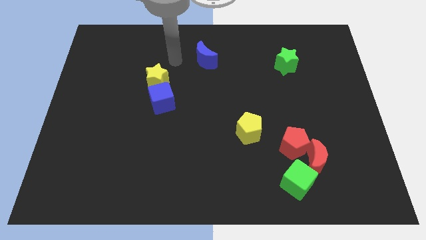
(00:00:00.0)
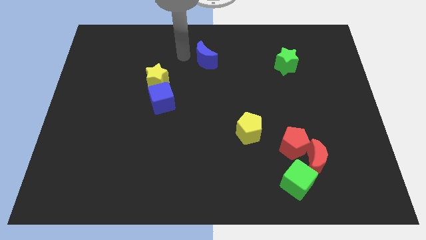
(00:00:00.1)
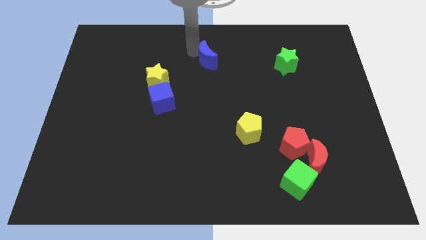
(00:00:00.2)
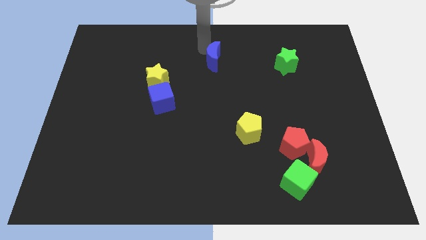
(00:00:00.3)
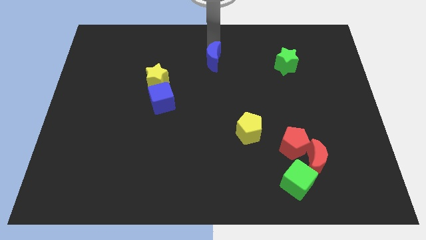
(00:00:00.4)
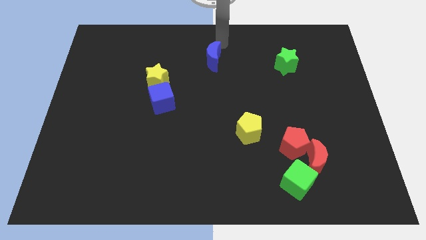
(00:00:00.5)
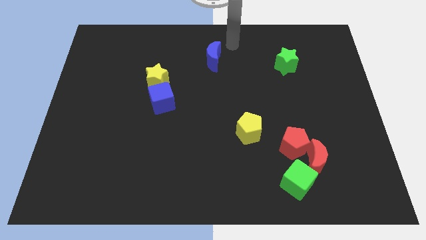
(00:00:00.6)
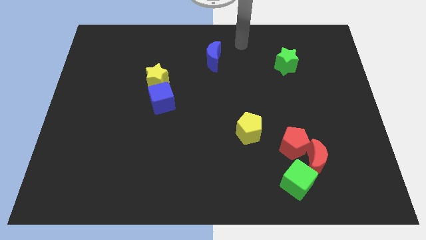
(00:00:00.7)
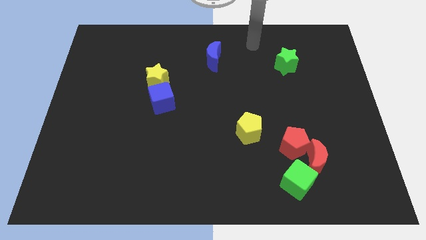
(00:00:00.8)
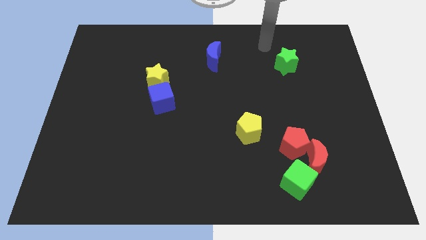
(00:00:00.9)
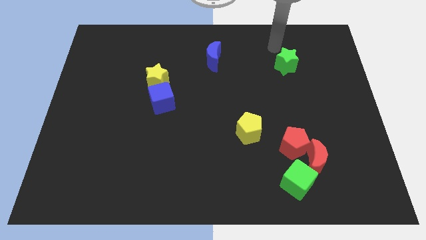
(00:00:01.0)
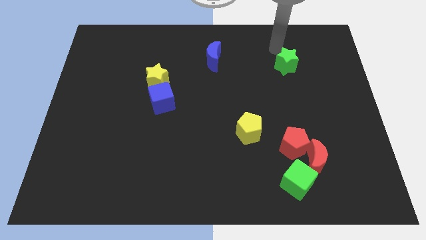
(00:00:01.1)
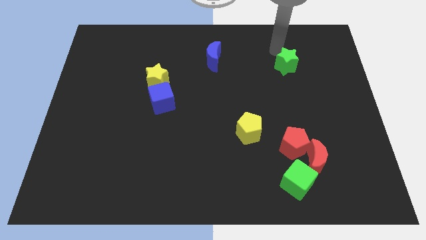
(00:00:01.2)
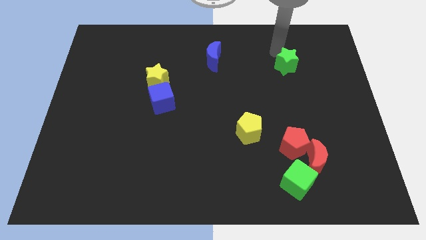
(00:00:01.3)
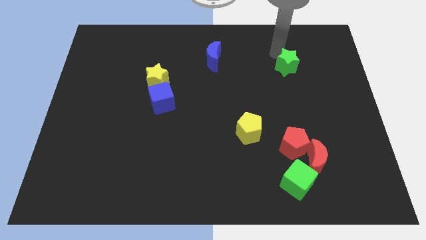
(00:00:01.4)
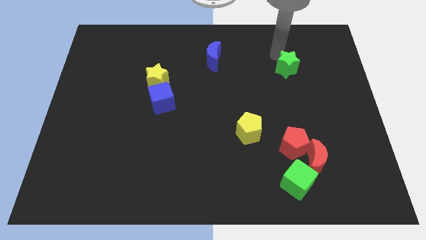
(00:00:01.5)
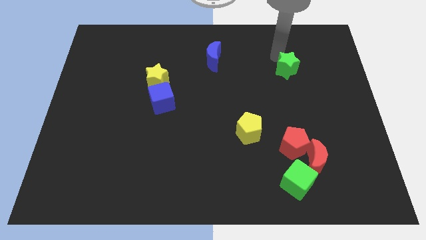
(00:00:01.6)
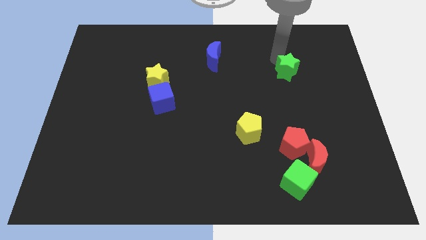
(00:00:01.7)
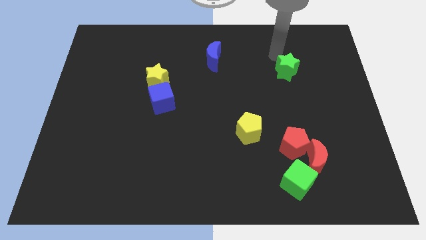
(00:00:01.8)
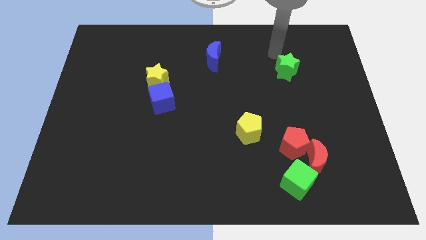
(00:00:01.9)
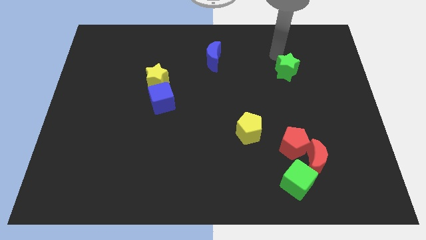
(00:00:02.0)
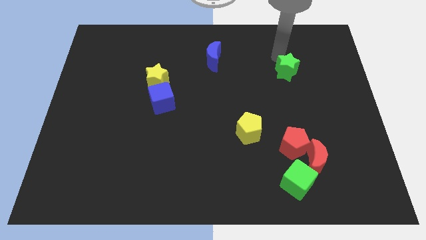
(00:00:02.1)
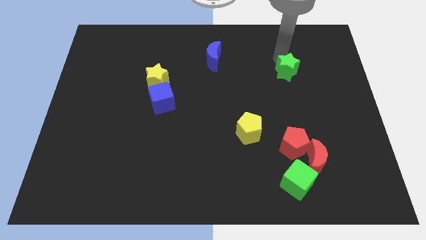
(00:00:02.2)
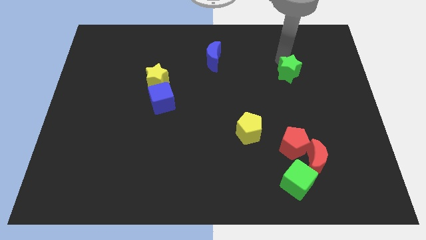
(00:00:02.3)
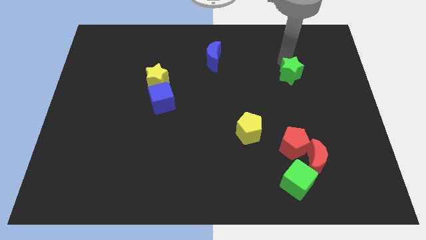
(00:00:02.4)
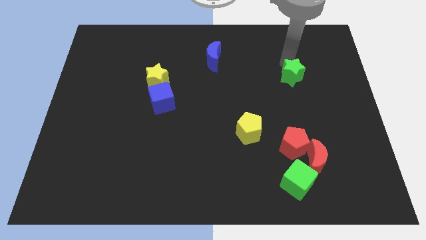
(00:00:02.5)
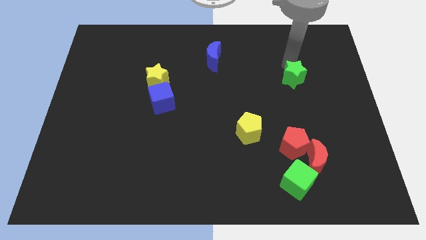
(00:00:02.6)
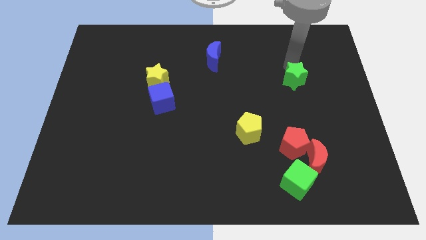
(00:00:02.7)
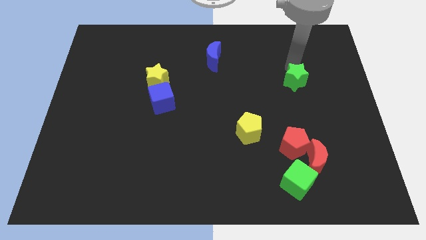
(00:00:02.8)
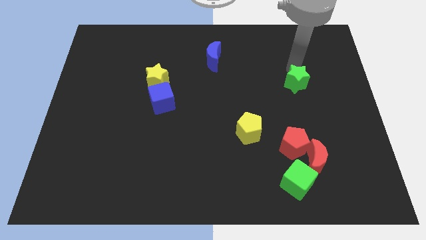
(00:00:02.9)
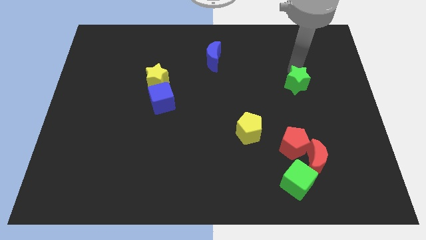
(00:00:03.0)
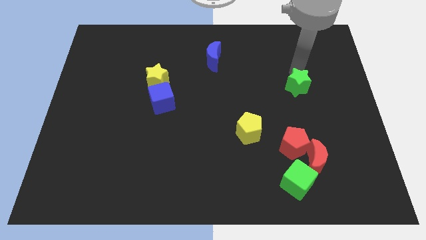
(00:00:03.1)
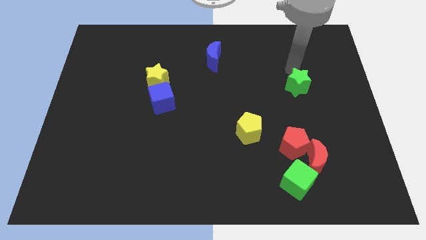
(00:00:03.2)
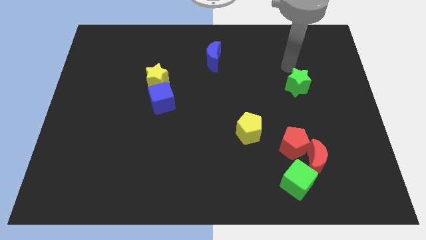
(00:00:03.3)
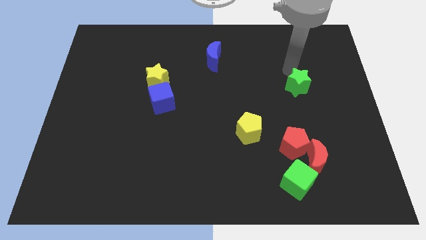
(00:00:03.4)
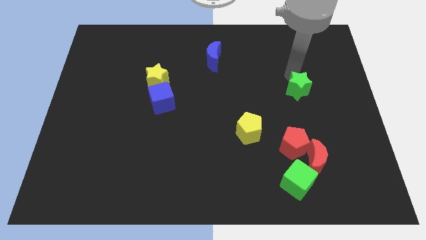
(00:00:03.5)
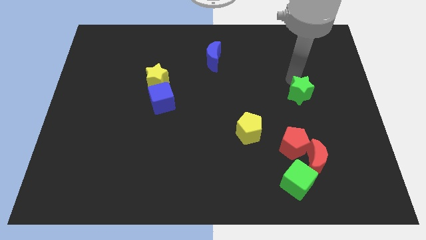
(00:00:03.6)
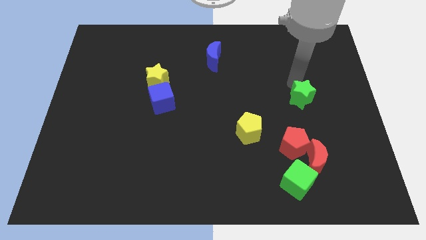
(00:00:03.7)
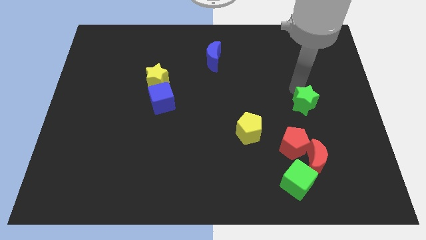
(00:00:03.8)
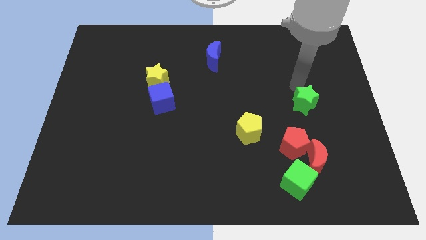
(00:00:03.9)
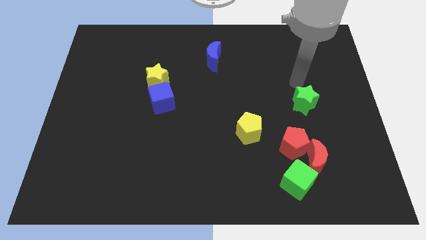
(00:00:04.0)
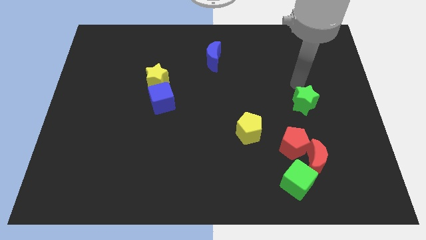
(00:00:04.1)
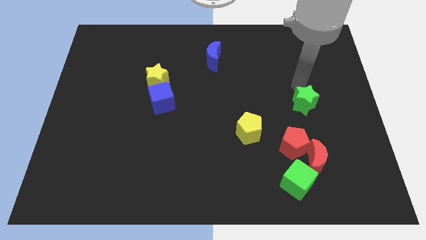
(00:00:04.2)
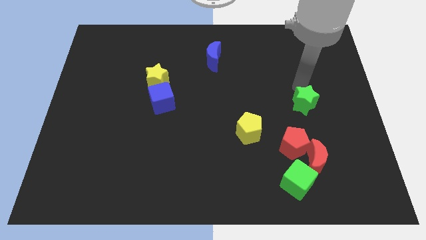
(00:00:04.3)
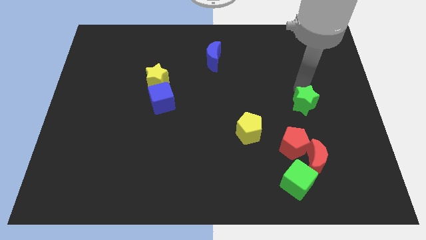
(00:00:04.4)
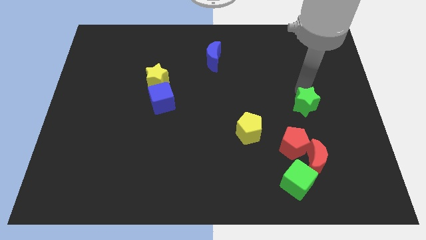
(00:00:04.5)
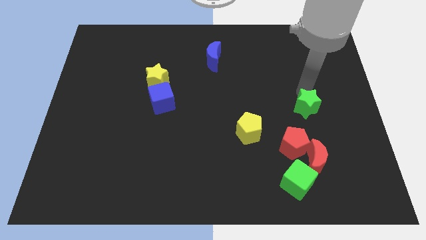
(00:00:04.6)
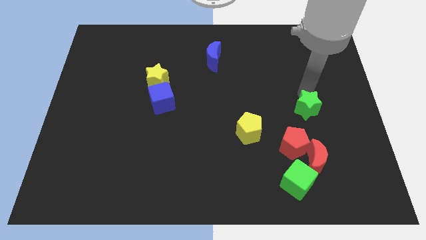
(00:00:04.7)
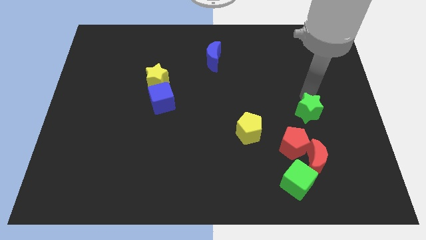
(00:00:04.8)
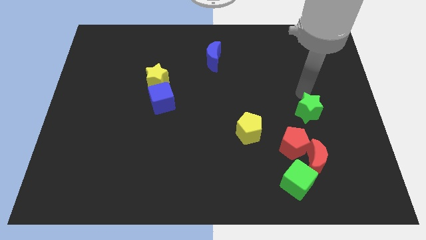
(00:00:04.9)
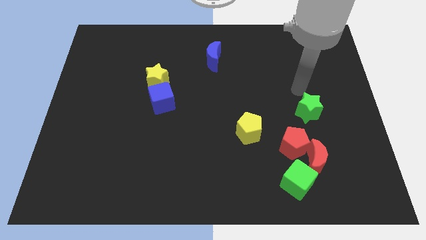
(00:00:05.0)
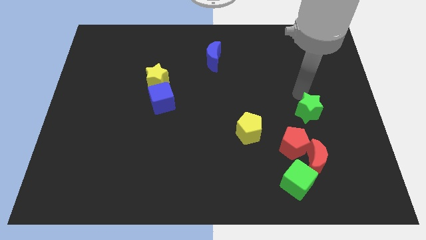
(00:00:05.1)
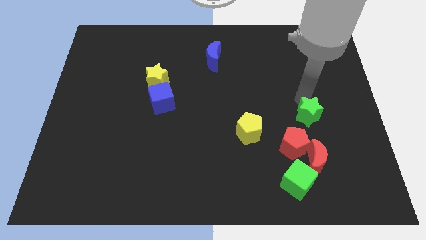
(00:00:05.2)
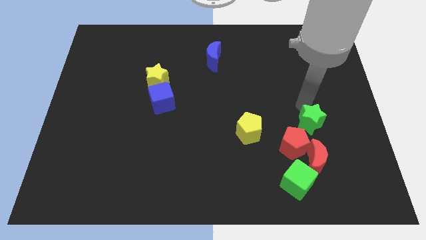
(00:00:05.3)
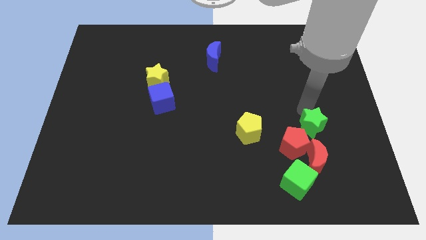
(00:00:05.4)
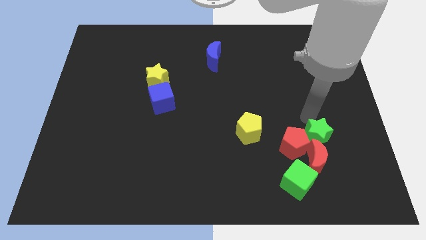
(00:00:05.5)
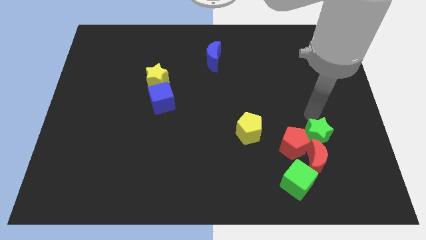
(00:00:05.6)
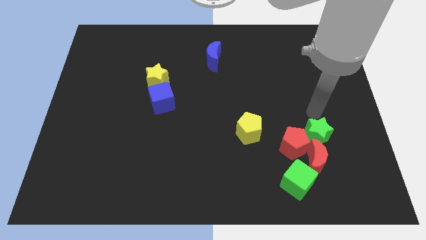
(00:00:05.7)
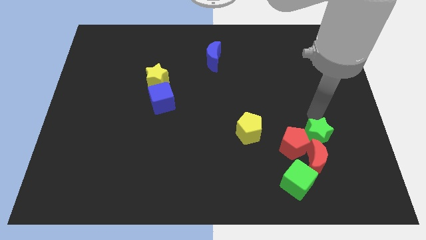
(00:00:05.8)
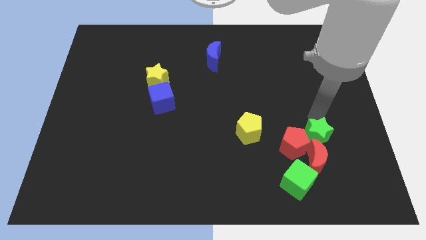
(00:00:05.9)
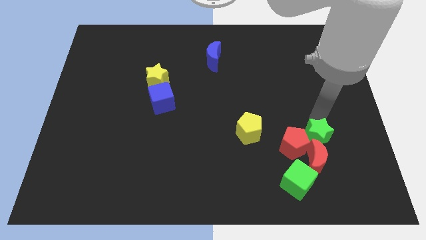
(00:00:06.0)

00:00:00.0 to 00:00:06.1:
push the green star towards the red moon

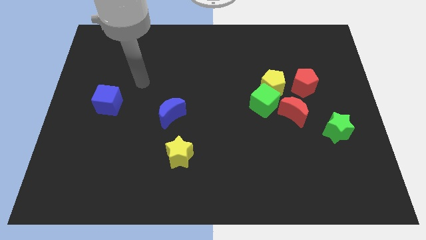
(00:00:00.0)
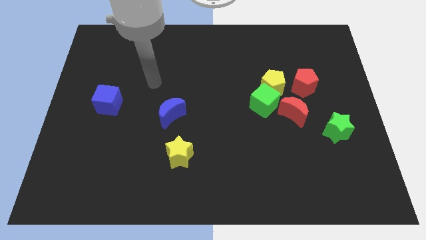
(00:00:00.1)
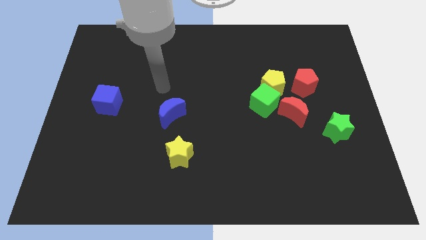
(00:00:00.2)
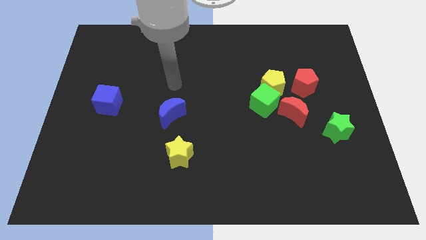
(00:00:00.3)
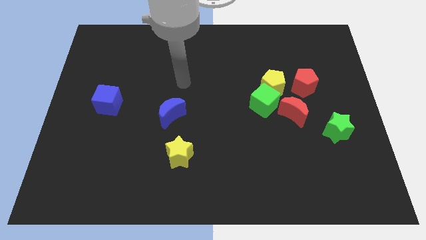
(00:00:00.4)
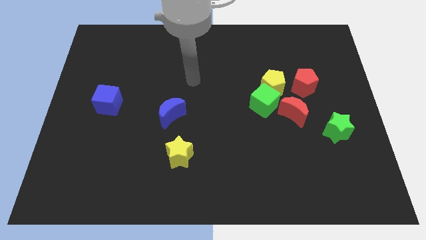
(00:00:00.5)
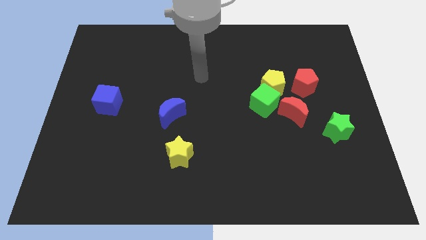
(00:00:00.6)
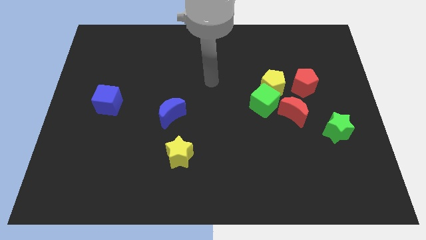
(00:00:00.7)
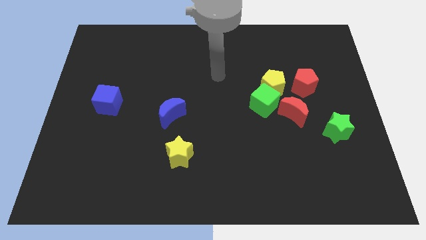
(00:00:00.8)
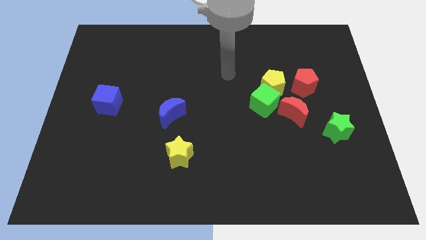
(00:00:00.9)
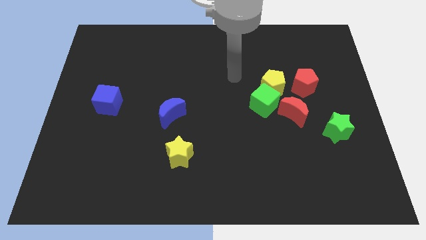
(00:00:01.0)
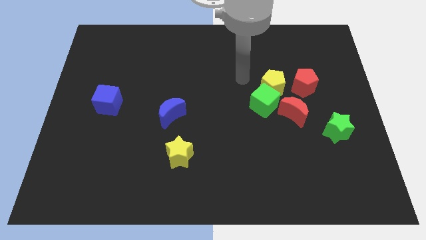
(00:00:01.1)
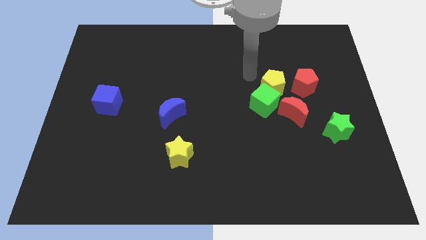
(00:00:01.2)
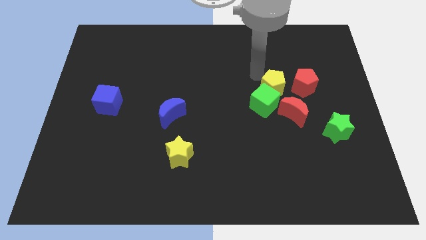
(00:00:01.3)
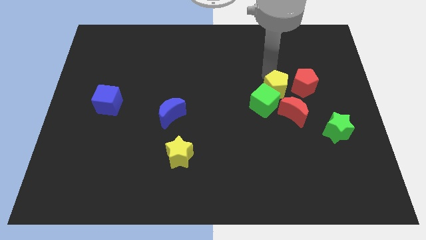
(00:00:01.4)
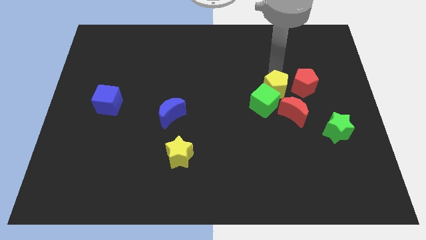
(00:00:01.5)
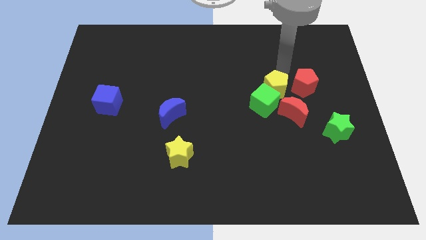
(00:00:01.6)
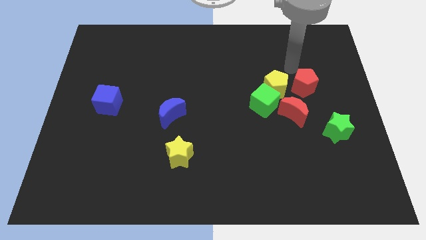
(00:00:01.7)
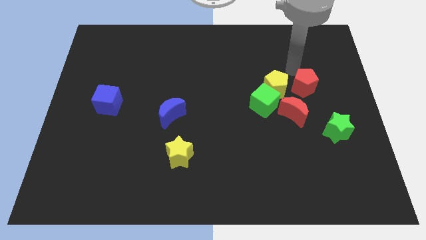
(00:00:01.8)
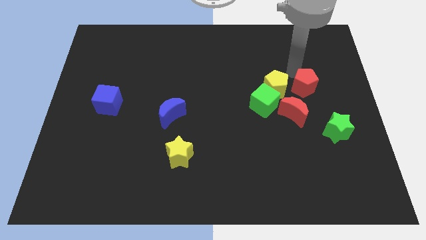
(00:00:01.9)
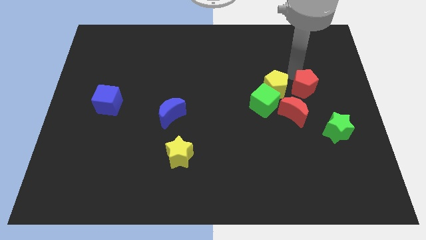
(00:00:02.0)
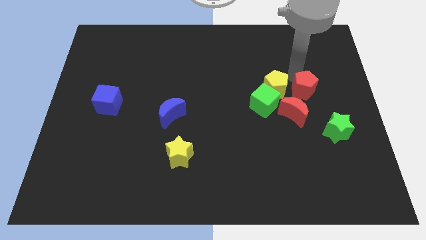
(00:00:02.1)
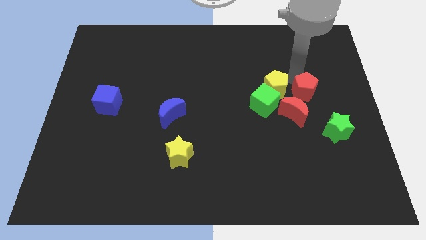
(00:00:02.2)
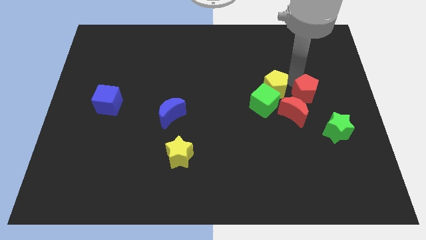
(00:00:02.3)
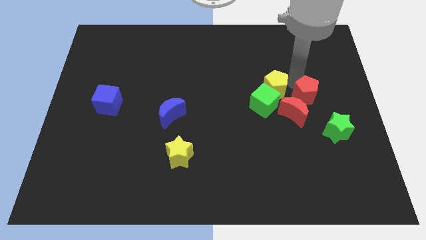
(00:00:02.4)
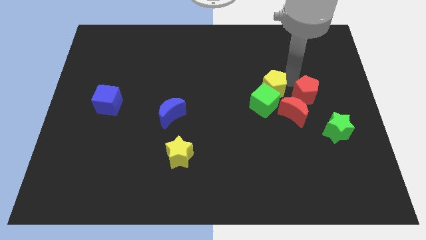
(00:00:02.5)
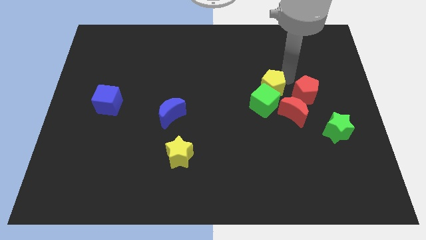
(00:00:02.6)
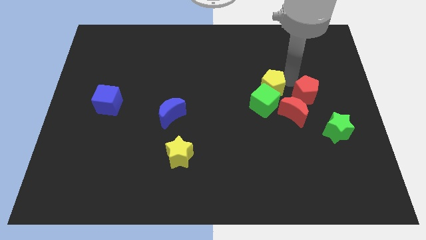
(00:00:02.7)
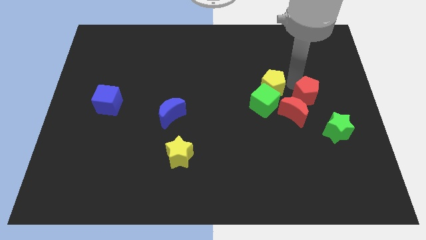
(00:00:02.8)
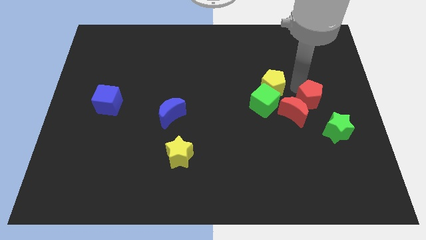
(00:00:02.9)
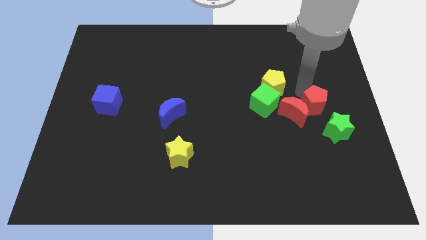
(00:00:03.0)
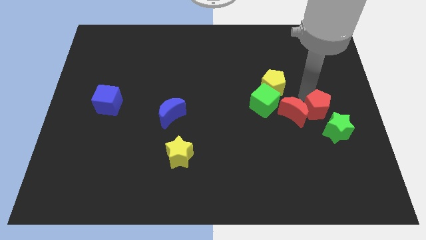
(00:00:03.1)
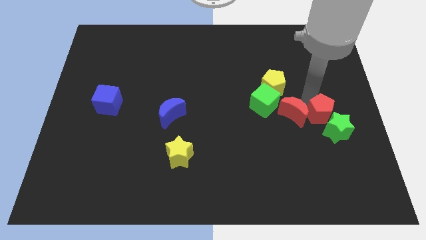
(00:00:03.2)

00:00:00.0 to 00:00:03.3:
move the red pentagon towards the green star
